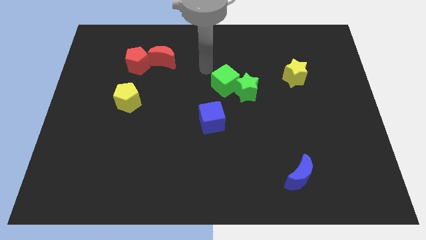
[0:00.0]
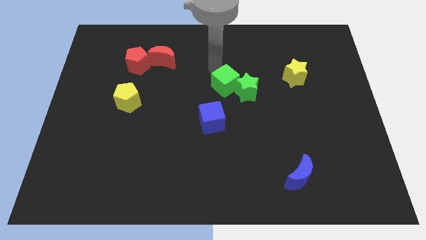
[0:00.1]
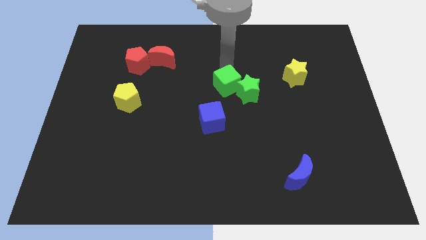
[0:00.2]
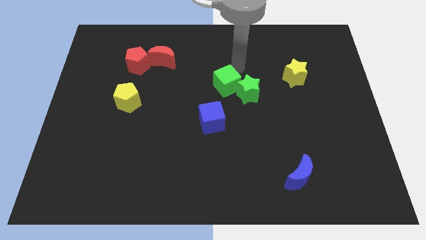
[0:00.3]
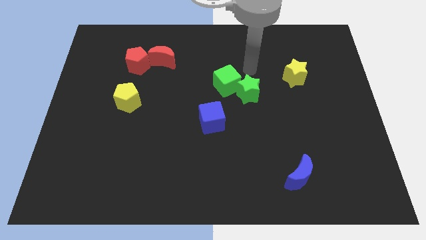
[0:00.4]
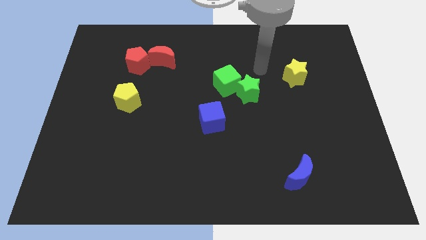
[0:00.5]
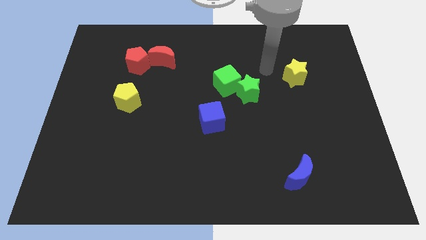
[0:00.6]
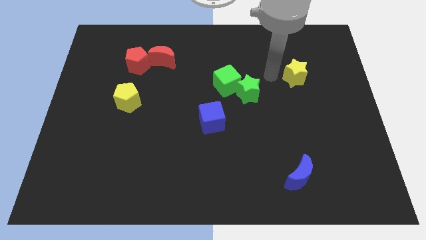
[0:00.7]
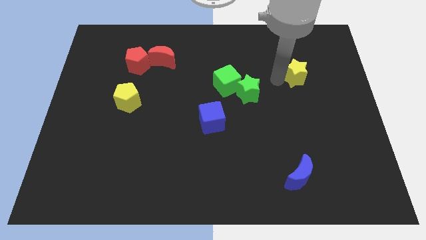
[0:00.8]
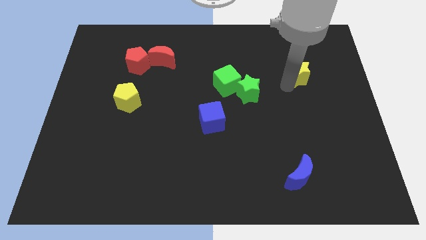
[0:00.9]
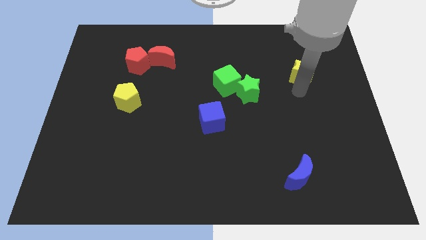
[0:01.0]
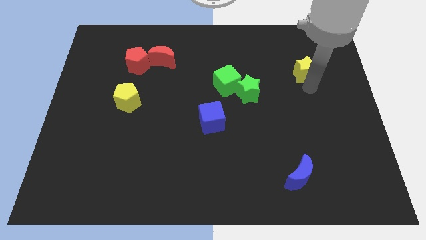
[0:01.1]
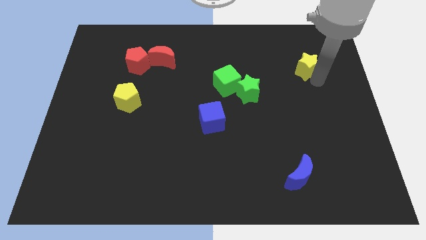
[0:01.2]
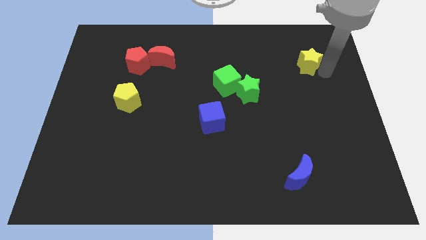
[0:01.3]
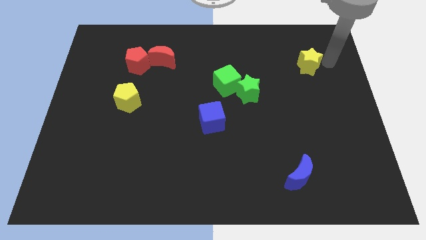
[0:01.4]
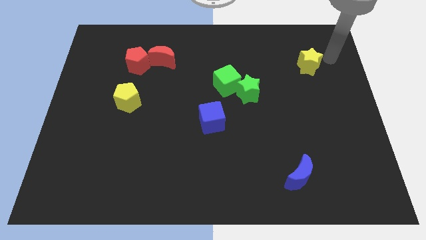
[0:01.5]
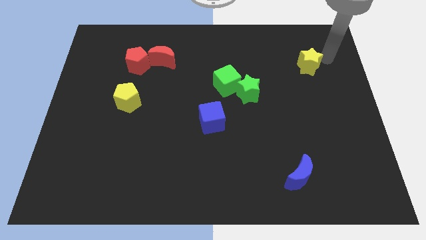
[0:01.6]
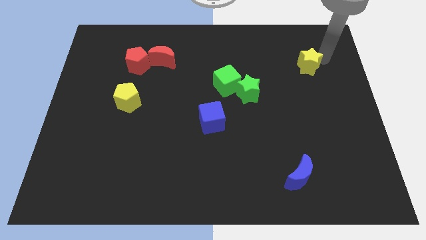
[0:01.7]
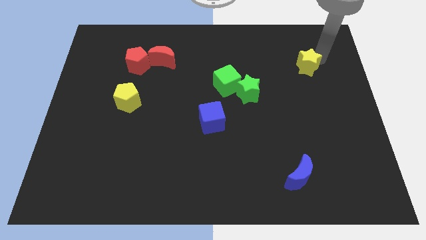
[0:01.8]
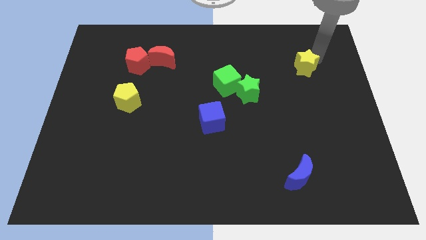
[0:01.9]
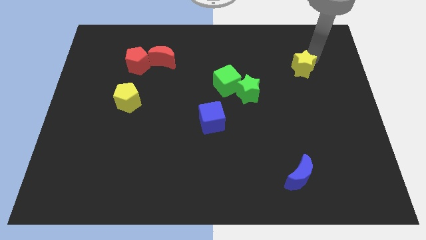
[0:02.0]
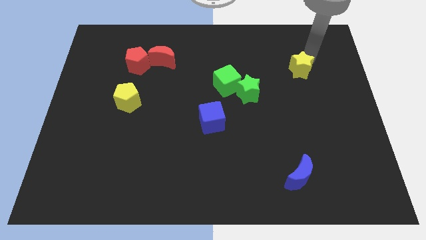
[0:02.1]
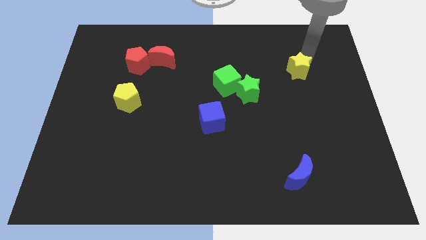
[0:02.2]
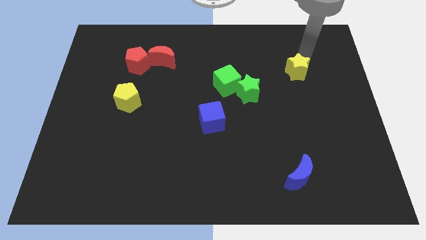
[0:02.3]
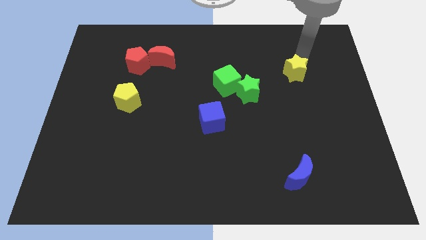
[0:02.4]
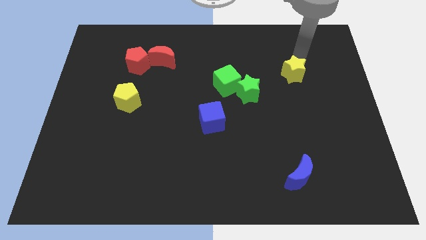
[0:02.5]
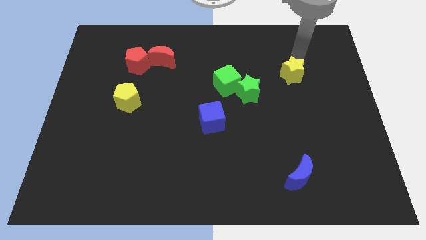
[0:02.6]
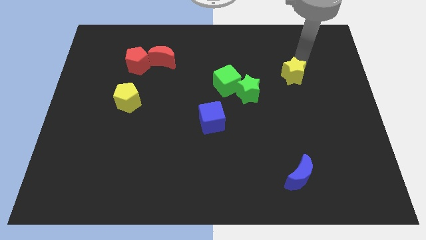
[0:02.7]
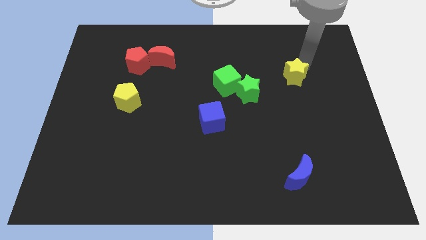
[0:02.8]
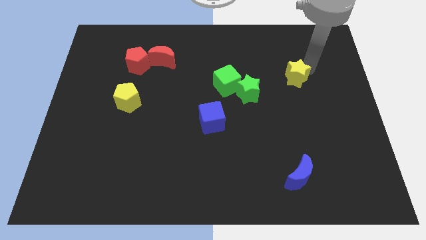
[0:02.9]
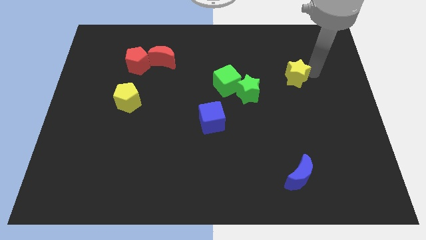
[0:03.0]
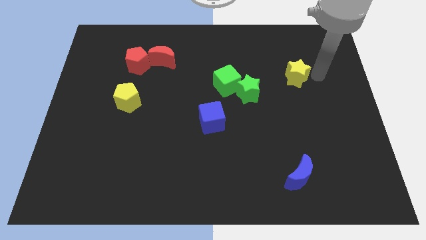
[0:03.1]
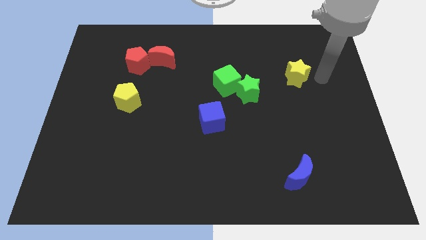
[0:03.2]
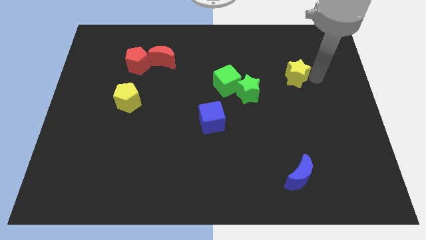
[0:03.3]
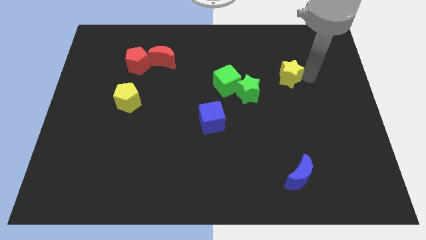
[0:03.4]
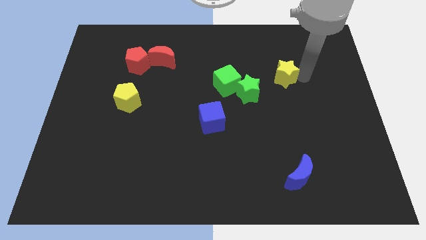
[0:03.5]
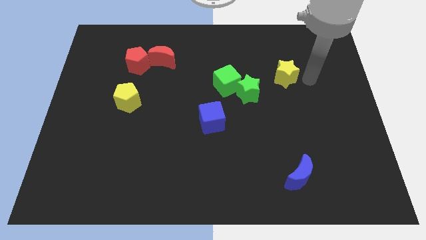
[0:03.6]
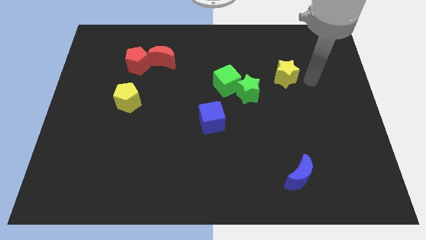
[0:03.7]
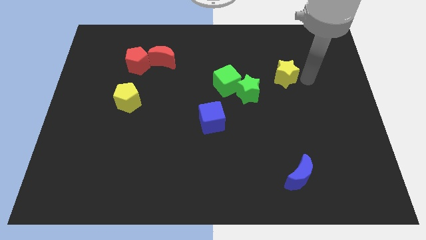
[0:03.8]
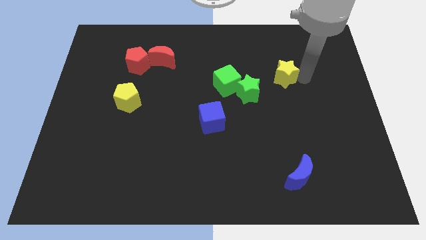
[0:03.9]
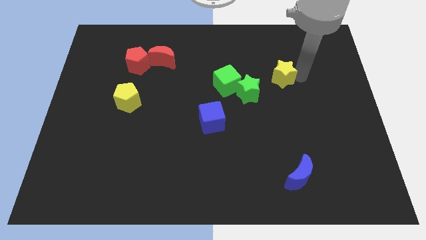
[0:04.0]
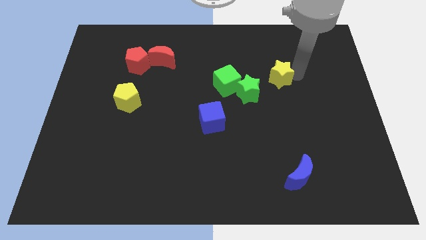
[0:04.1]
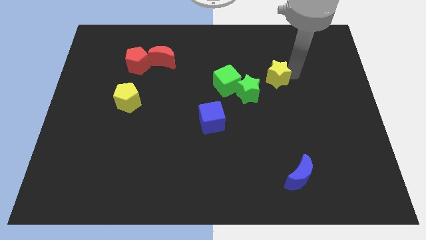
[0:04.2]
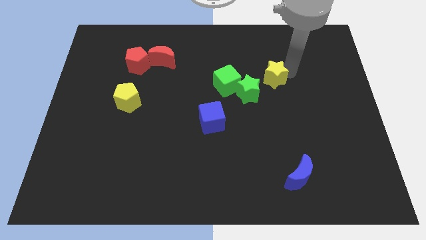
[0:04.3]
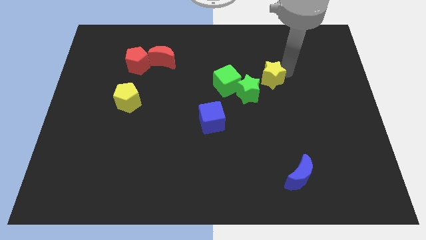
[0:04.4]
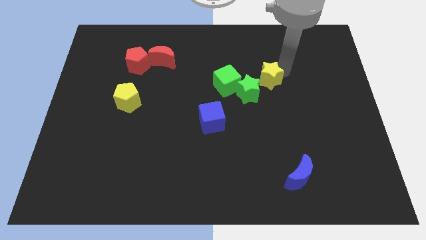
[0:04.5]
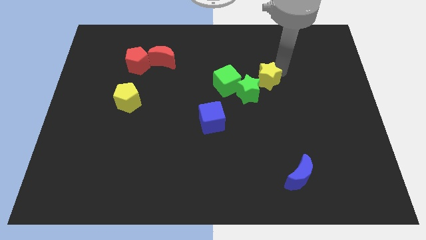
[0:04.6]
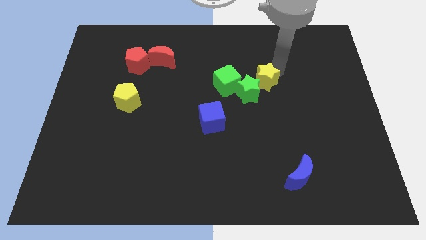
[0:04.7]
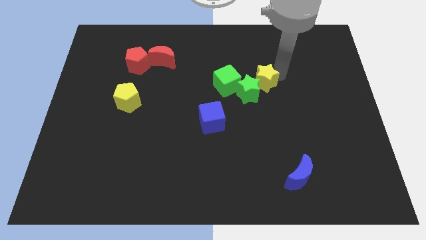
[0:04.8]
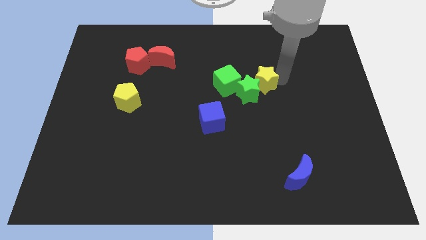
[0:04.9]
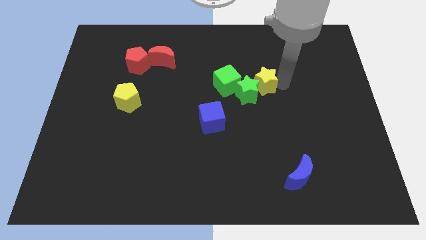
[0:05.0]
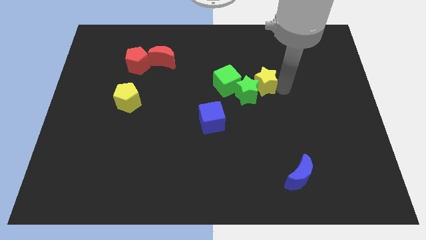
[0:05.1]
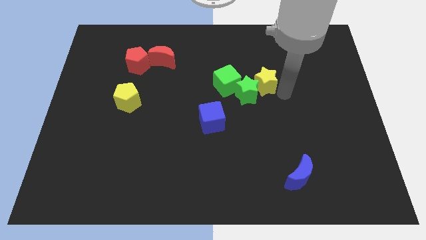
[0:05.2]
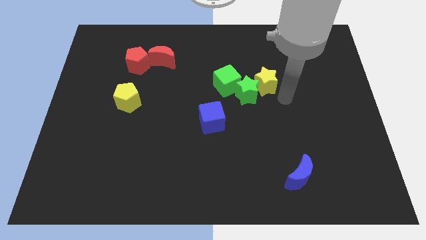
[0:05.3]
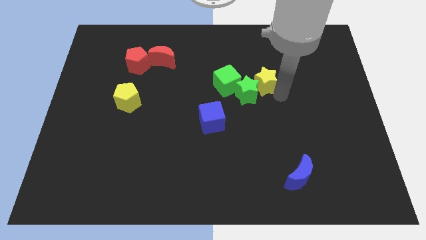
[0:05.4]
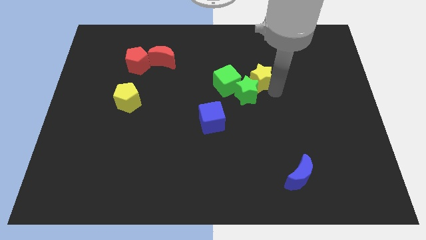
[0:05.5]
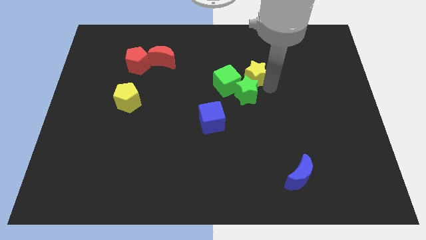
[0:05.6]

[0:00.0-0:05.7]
move the yellow star diagonally up and to the right of the green cube

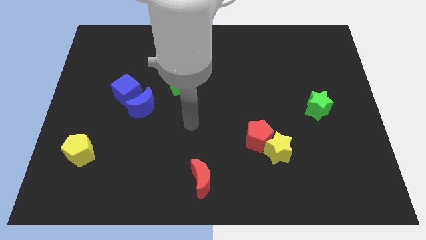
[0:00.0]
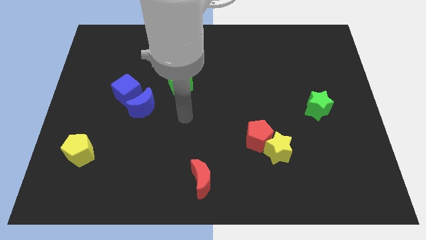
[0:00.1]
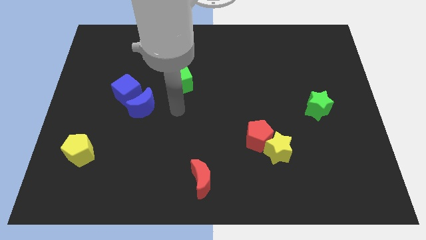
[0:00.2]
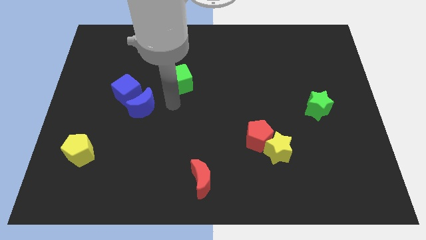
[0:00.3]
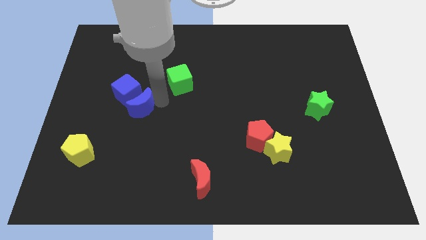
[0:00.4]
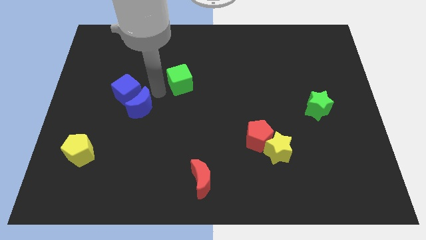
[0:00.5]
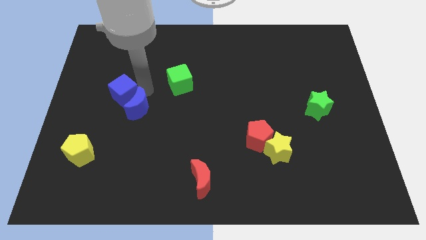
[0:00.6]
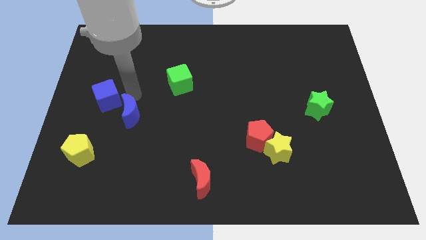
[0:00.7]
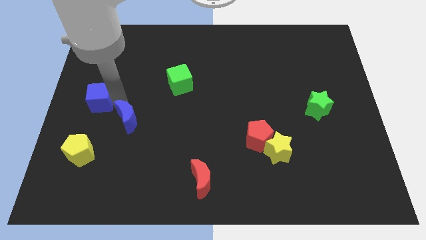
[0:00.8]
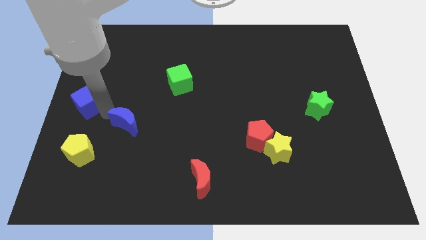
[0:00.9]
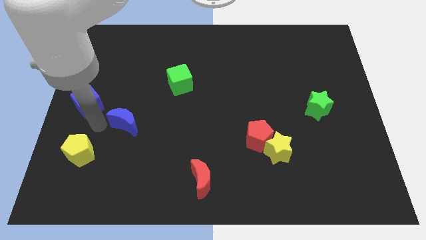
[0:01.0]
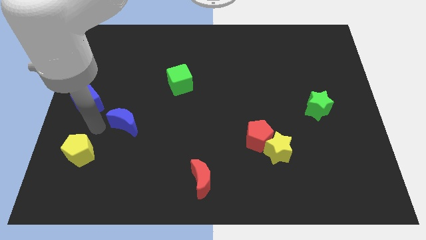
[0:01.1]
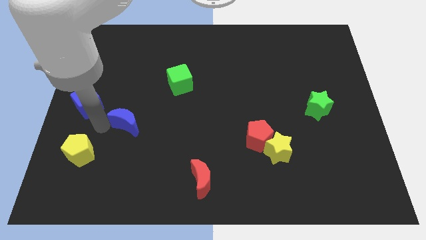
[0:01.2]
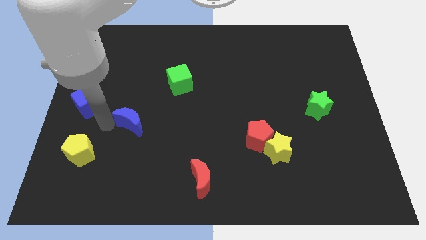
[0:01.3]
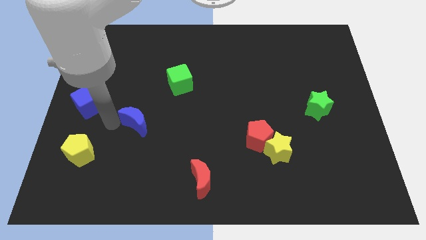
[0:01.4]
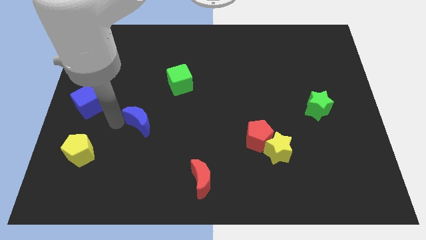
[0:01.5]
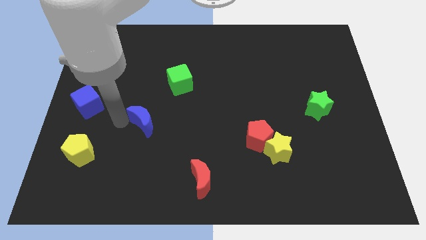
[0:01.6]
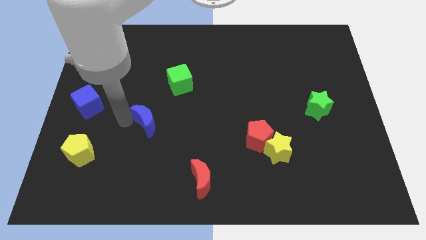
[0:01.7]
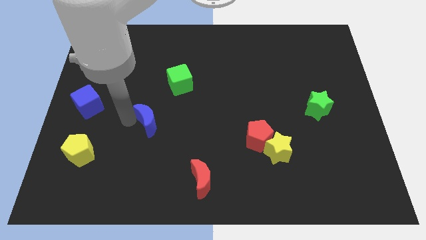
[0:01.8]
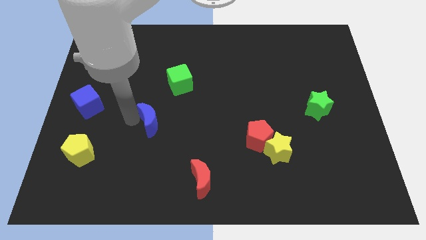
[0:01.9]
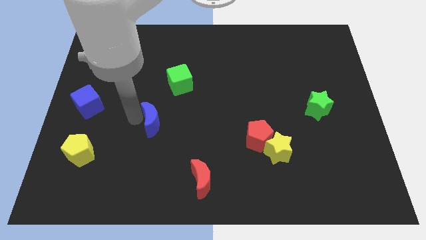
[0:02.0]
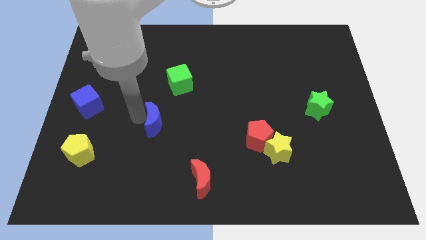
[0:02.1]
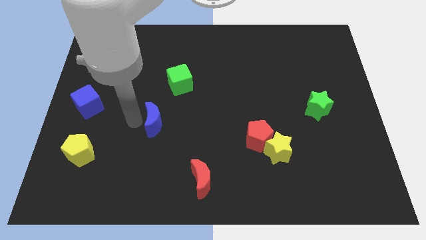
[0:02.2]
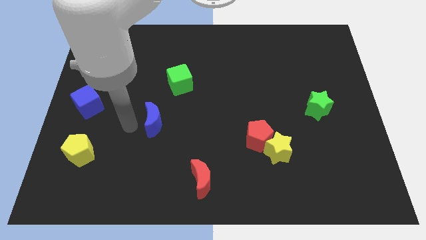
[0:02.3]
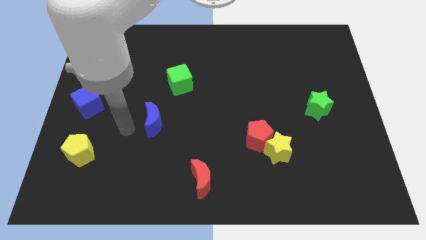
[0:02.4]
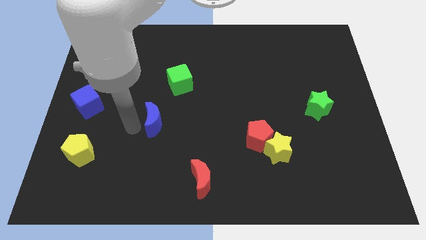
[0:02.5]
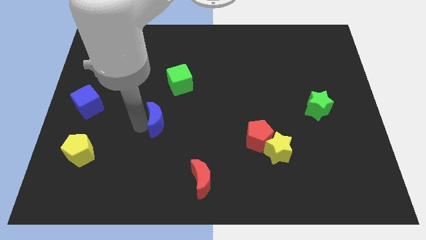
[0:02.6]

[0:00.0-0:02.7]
push the blue moon to the bottom side of the green cube
